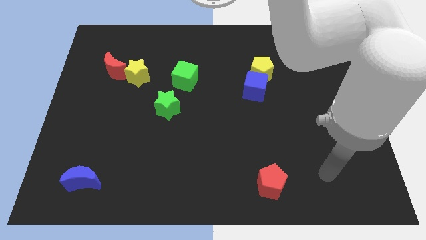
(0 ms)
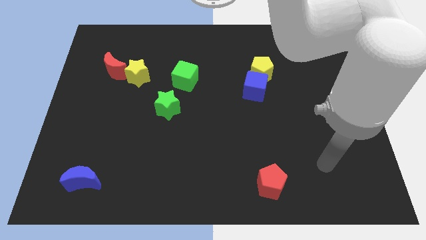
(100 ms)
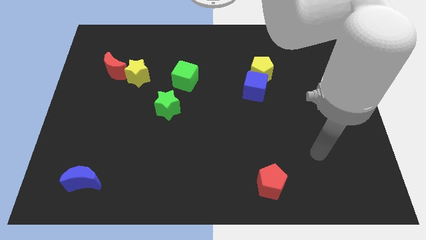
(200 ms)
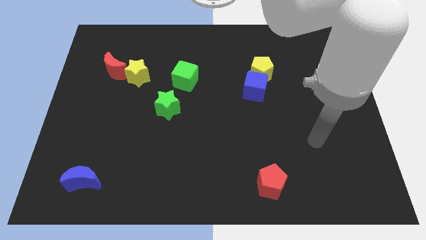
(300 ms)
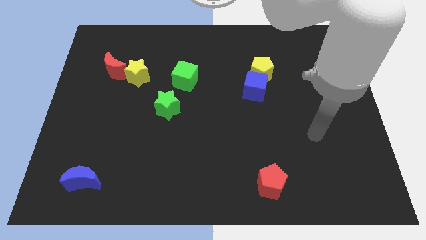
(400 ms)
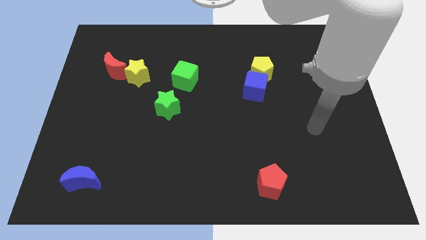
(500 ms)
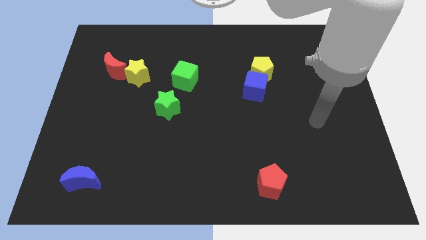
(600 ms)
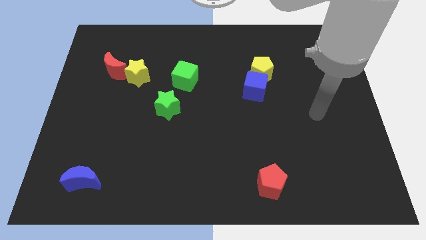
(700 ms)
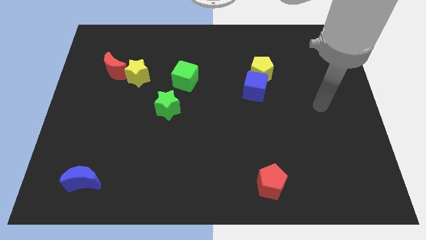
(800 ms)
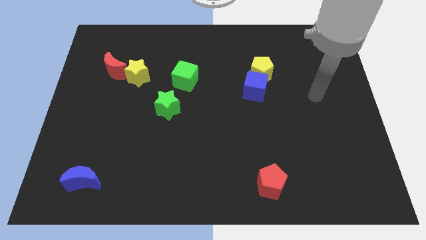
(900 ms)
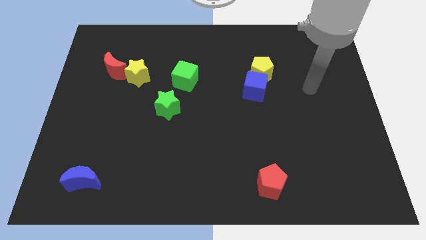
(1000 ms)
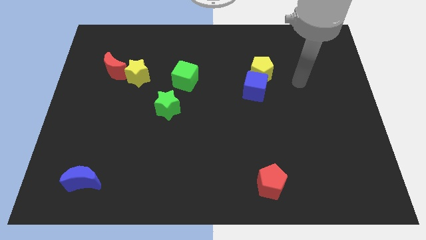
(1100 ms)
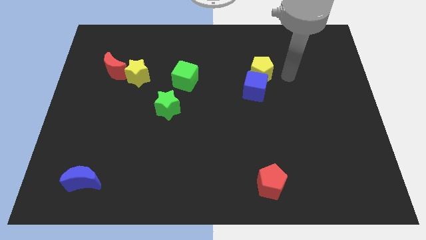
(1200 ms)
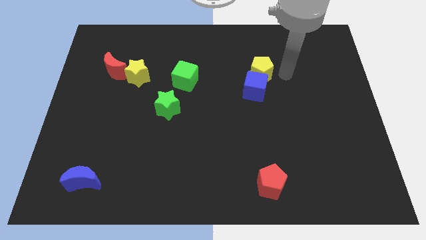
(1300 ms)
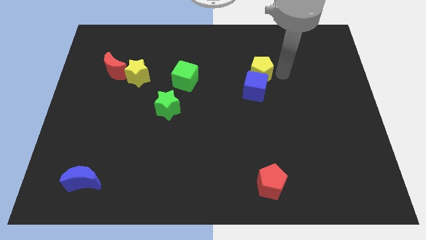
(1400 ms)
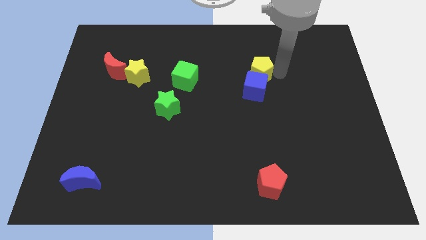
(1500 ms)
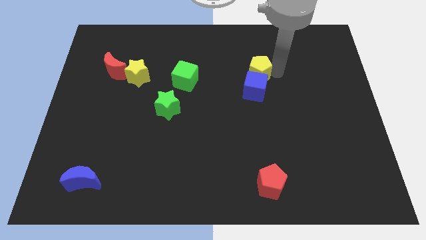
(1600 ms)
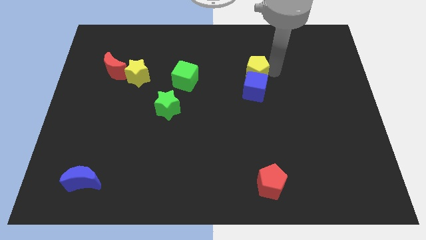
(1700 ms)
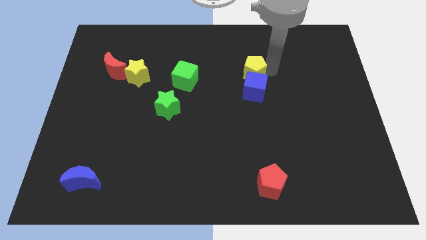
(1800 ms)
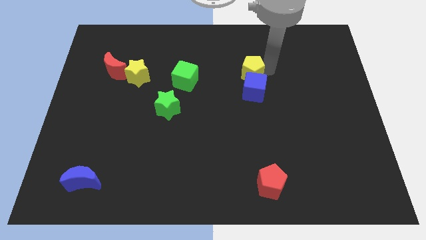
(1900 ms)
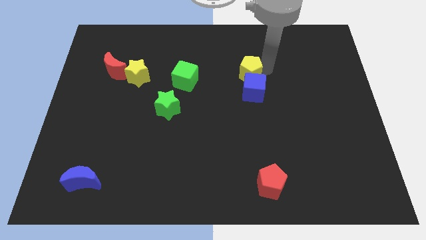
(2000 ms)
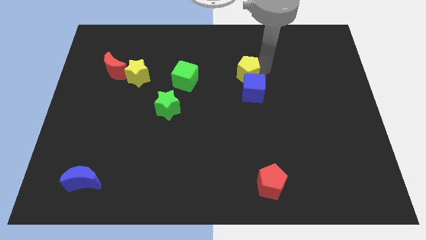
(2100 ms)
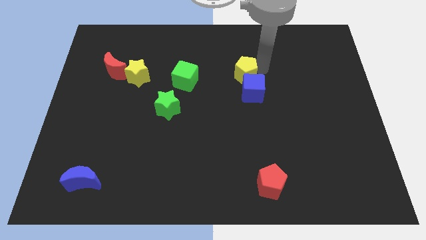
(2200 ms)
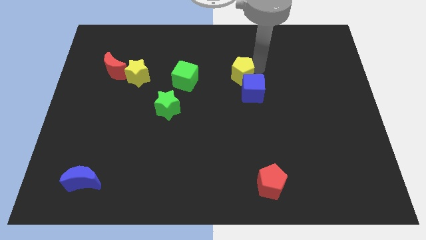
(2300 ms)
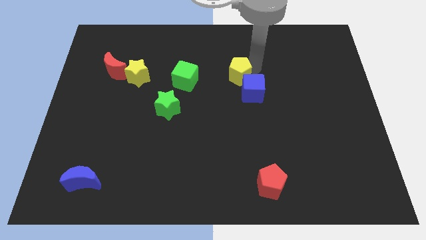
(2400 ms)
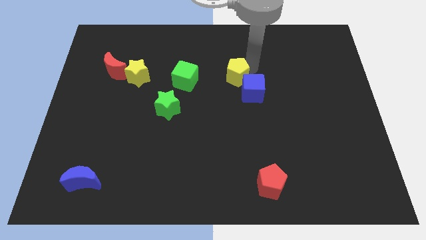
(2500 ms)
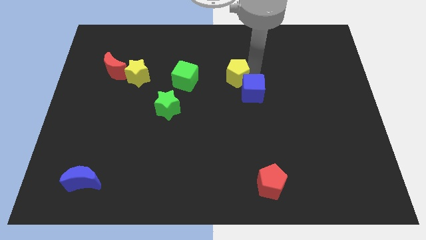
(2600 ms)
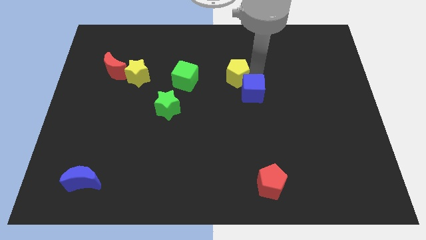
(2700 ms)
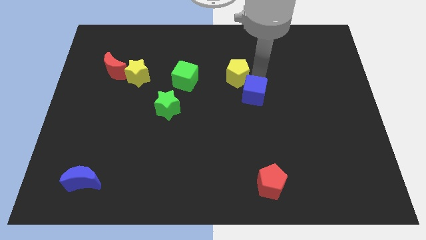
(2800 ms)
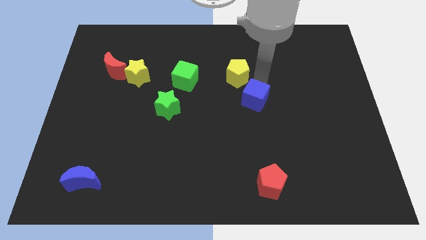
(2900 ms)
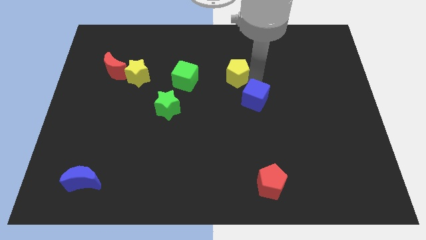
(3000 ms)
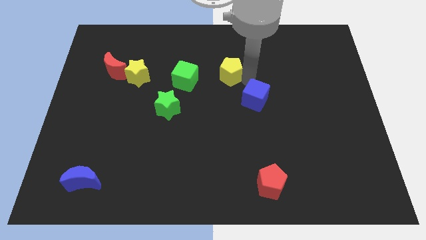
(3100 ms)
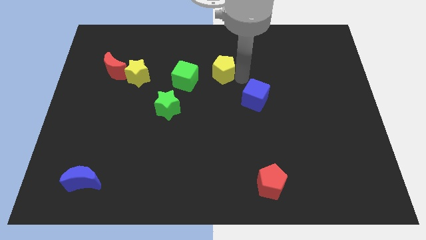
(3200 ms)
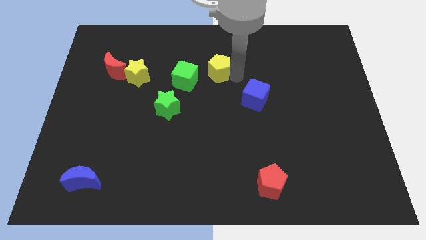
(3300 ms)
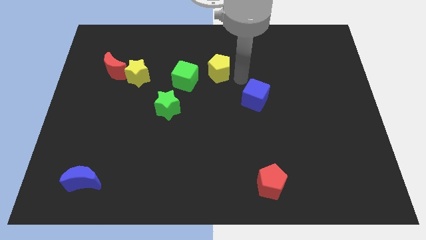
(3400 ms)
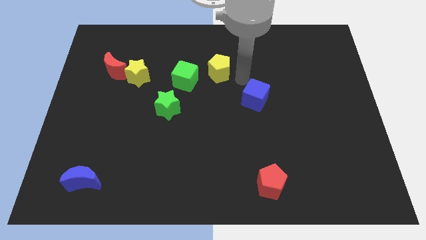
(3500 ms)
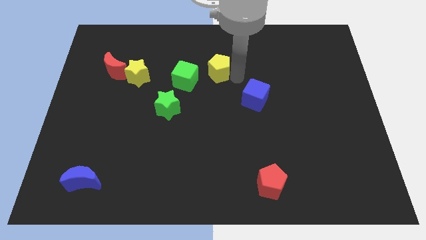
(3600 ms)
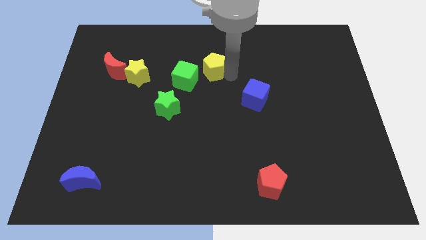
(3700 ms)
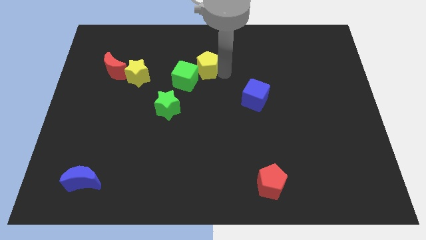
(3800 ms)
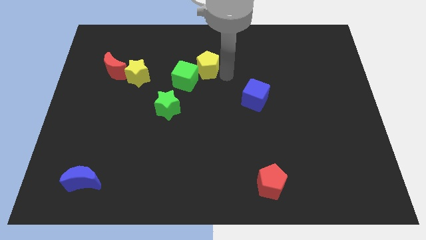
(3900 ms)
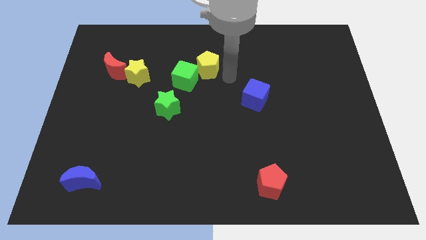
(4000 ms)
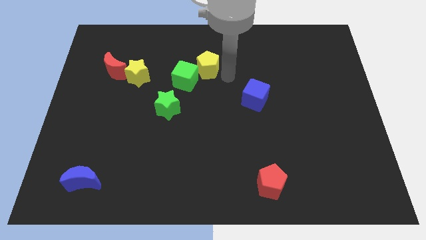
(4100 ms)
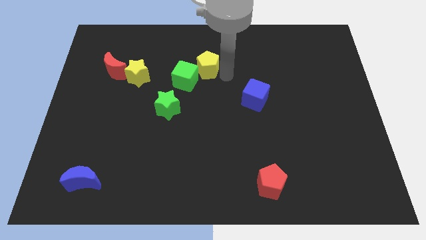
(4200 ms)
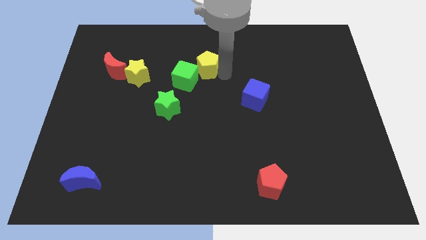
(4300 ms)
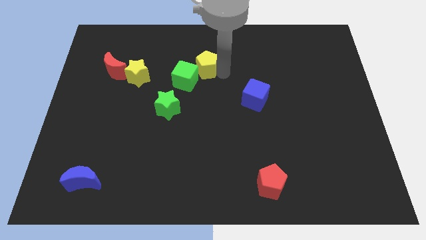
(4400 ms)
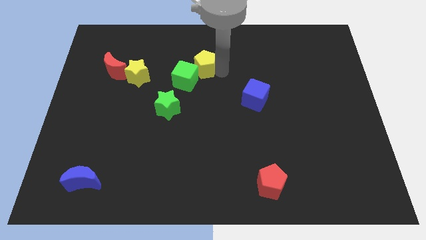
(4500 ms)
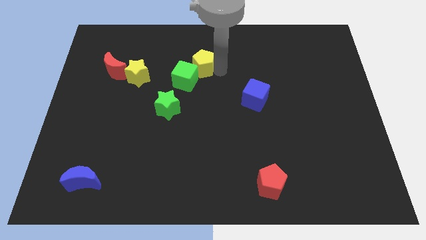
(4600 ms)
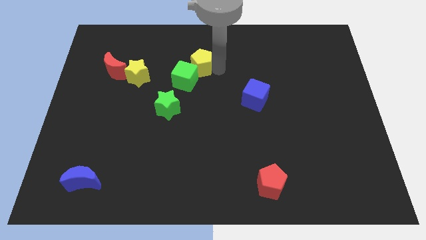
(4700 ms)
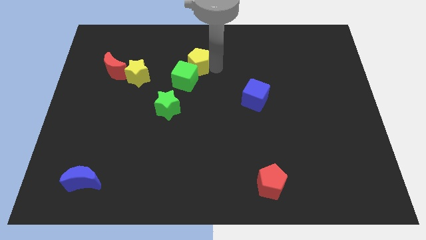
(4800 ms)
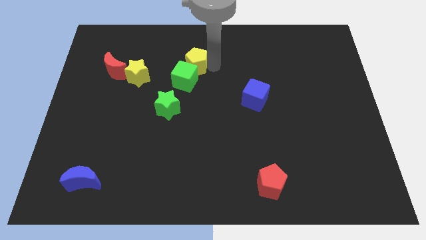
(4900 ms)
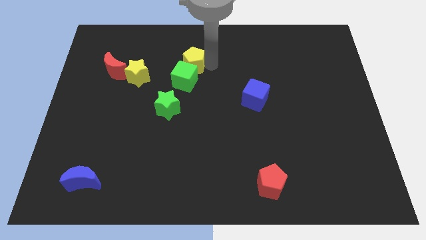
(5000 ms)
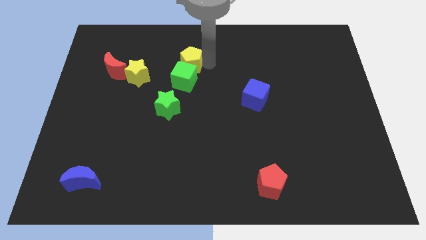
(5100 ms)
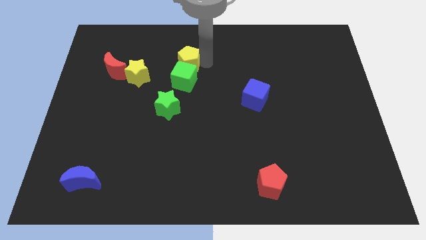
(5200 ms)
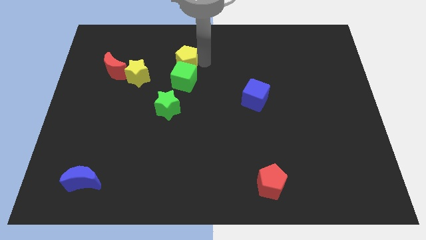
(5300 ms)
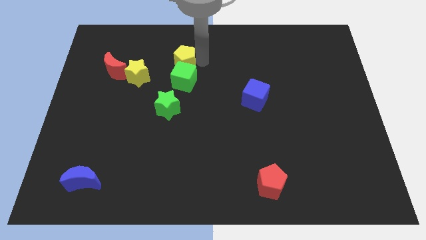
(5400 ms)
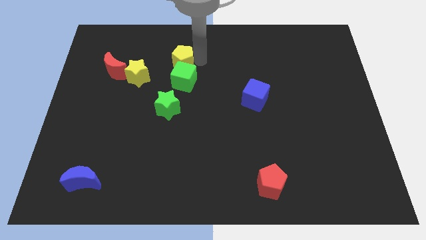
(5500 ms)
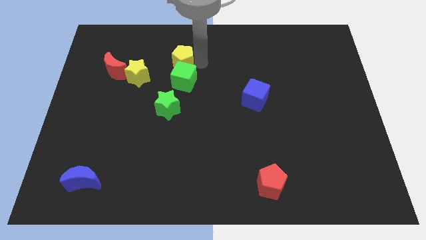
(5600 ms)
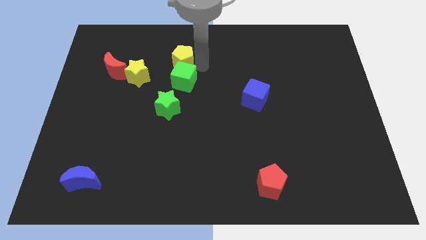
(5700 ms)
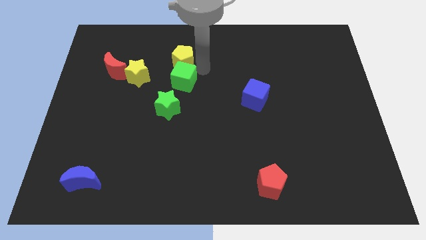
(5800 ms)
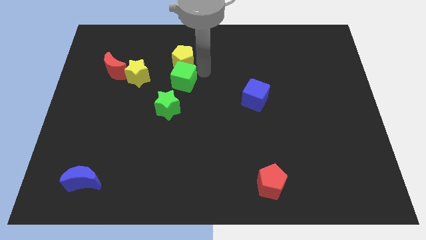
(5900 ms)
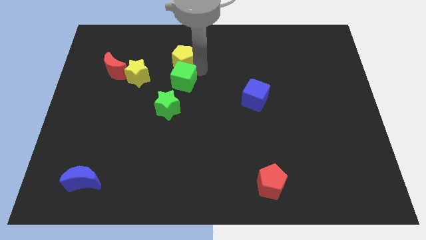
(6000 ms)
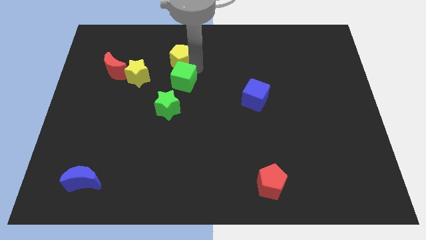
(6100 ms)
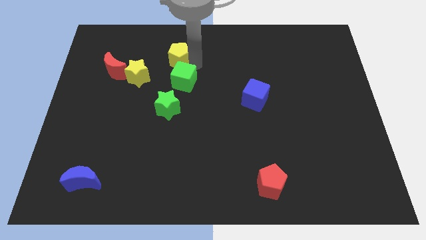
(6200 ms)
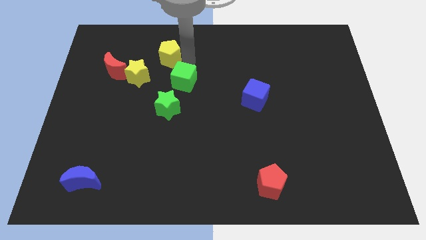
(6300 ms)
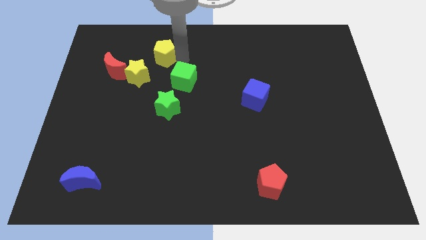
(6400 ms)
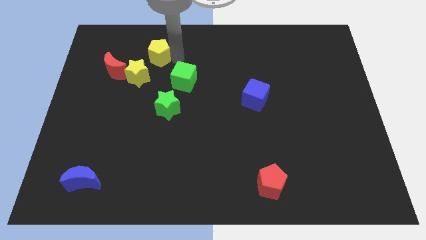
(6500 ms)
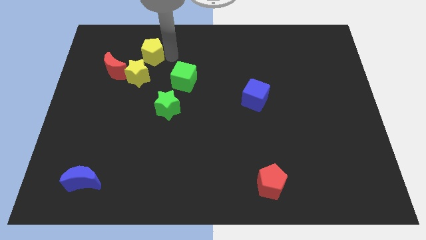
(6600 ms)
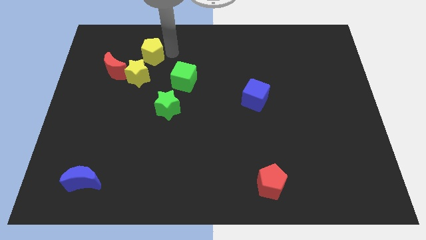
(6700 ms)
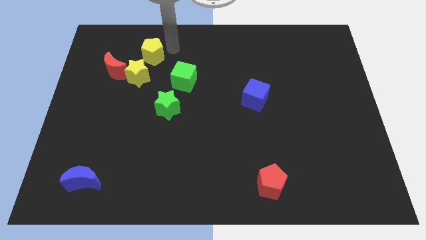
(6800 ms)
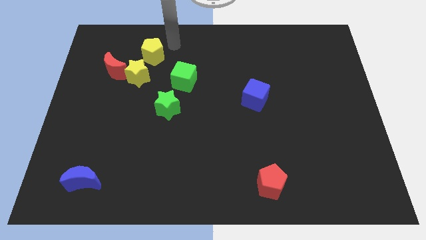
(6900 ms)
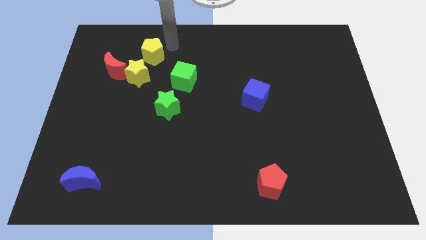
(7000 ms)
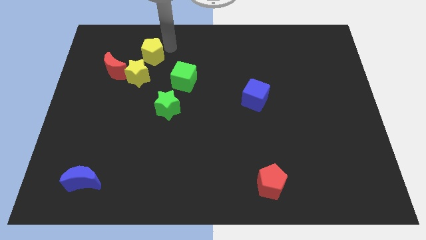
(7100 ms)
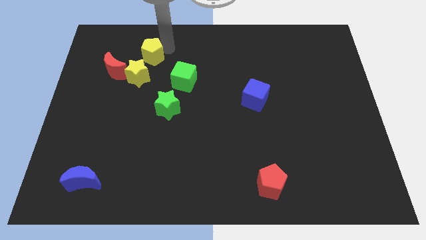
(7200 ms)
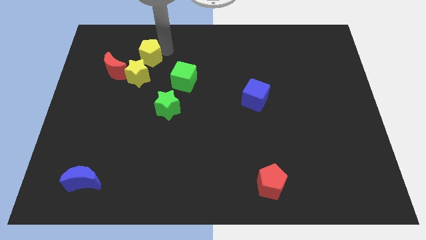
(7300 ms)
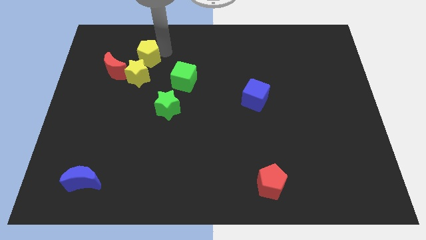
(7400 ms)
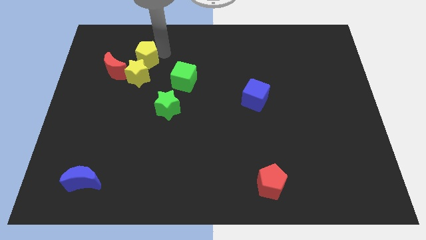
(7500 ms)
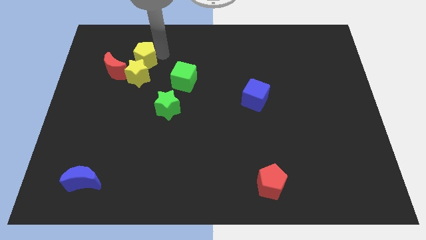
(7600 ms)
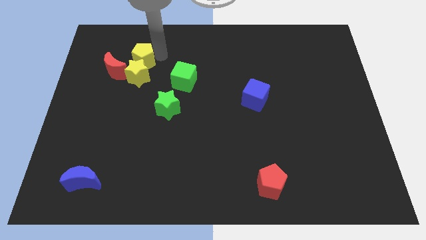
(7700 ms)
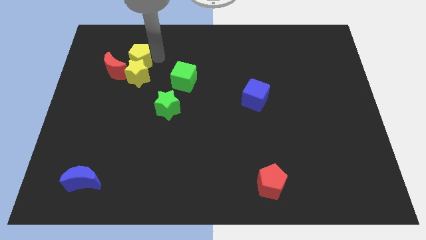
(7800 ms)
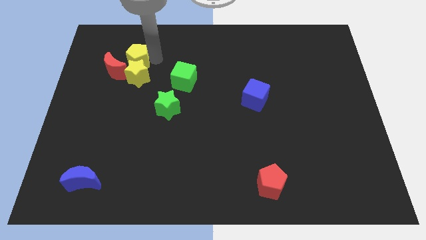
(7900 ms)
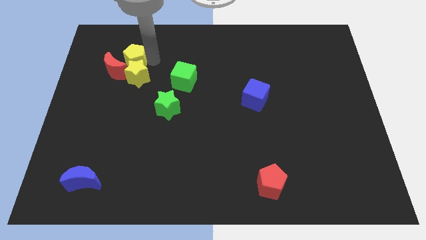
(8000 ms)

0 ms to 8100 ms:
slide the yellow pentagon close to the red moon
